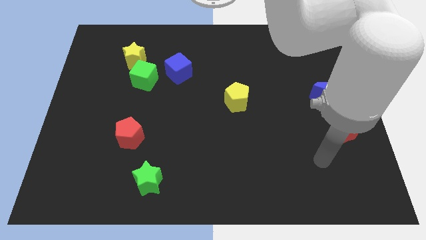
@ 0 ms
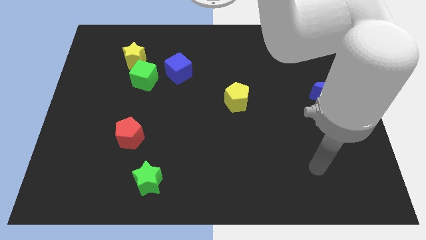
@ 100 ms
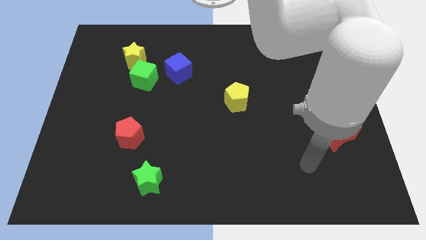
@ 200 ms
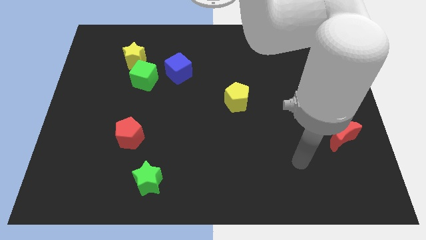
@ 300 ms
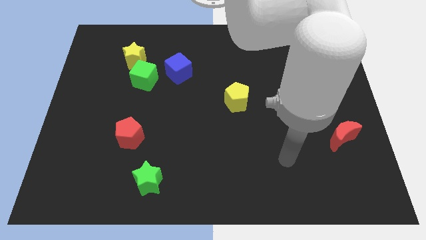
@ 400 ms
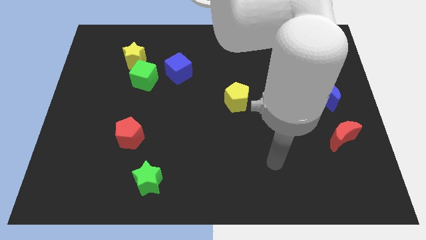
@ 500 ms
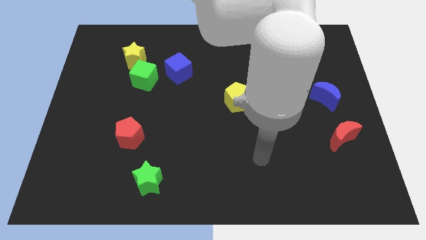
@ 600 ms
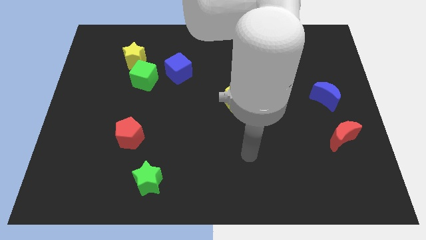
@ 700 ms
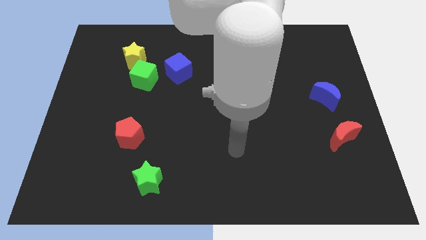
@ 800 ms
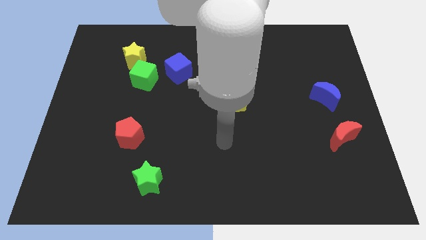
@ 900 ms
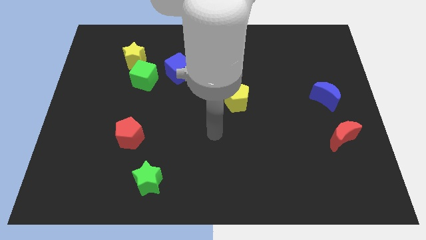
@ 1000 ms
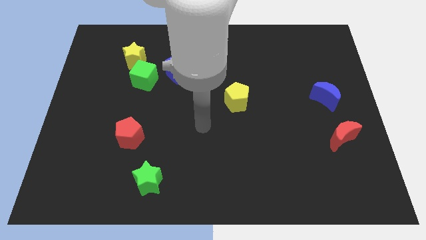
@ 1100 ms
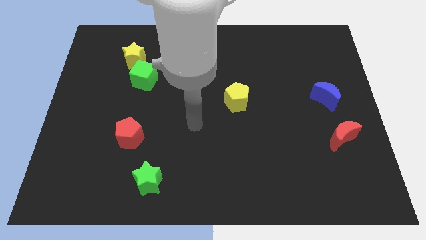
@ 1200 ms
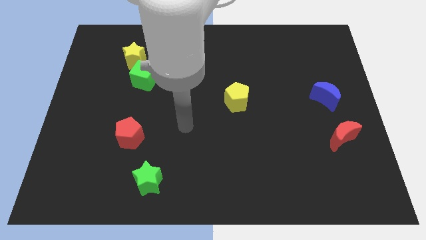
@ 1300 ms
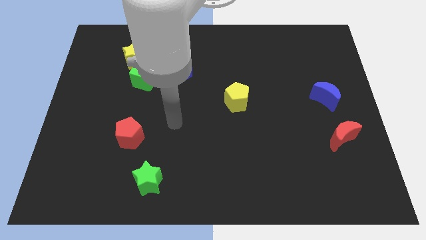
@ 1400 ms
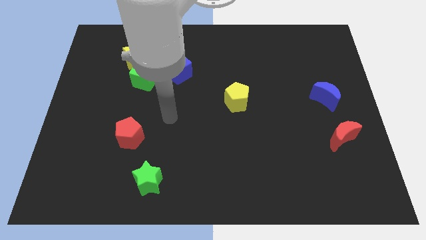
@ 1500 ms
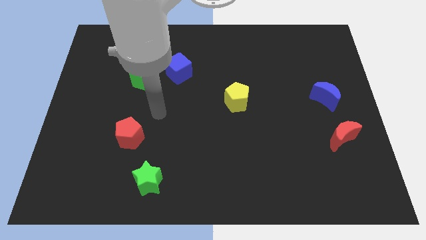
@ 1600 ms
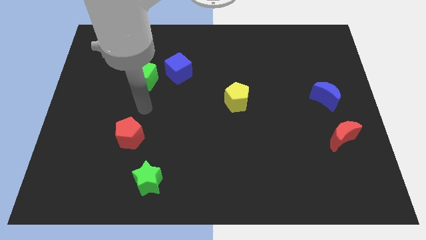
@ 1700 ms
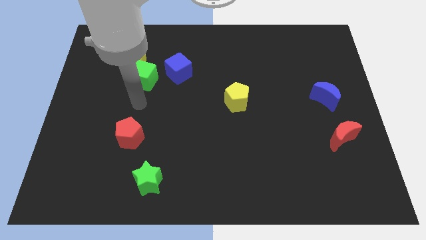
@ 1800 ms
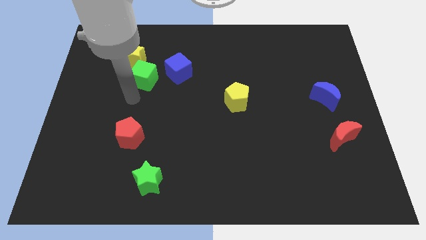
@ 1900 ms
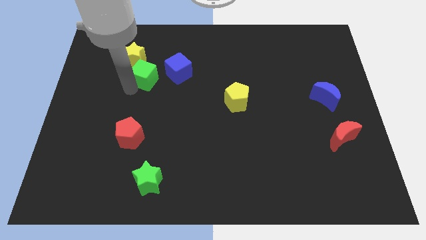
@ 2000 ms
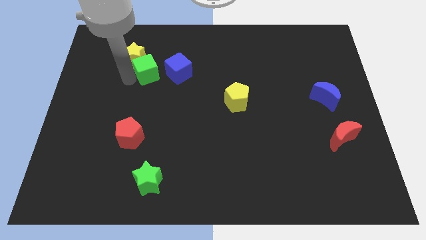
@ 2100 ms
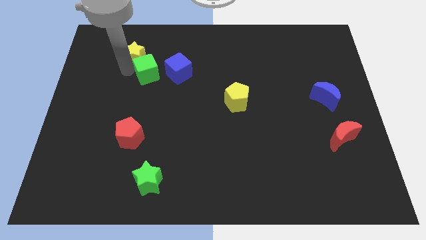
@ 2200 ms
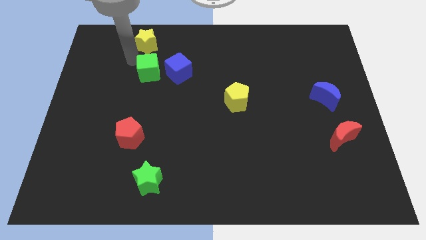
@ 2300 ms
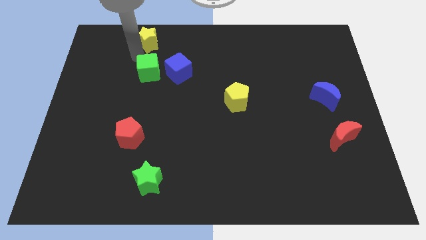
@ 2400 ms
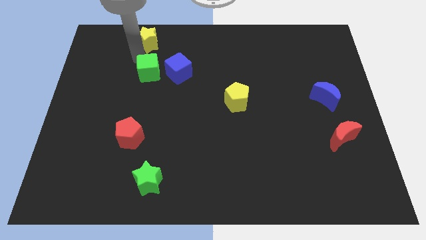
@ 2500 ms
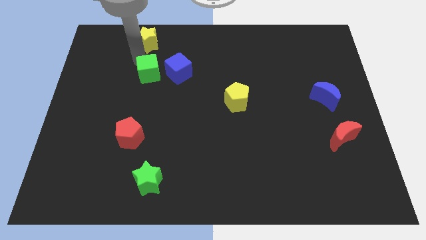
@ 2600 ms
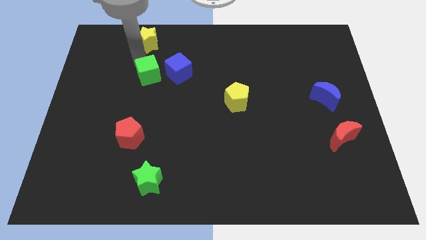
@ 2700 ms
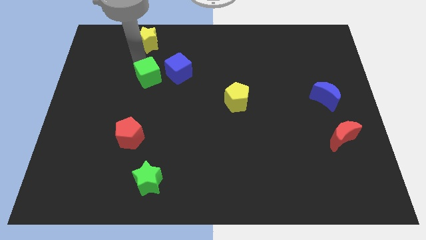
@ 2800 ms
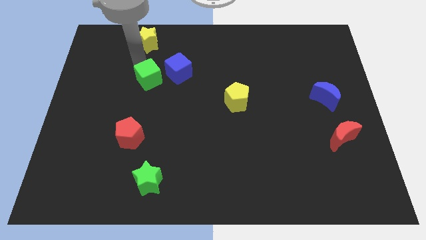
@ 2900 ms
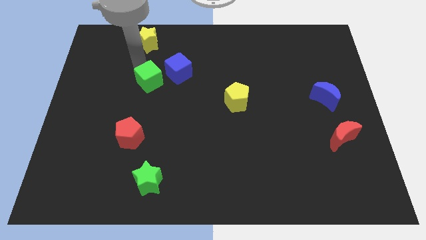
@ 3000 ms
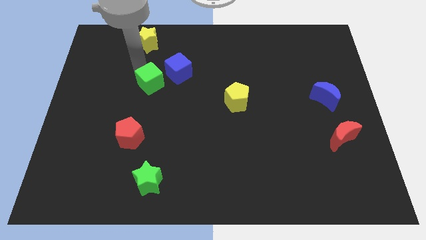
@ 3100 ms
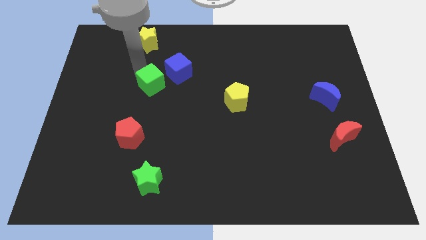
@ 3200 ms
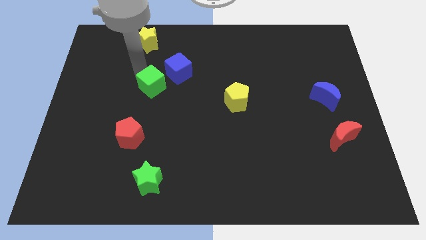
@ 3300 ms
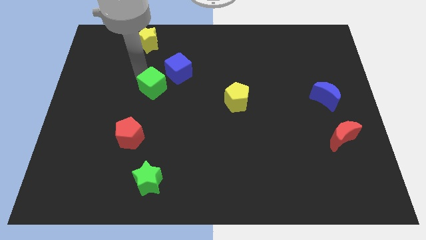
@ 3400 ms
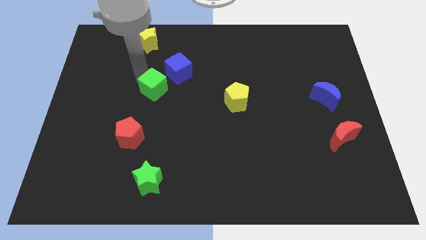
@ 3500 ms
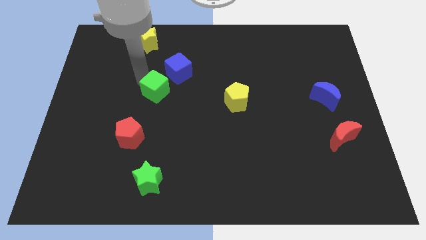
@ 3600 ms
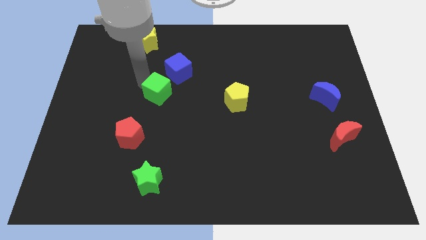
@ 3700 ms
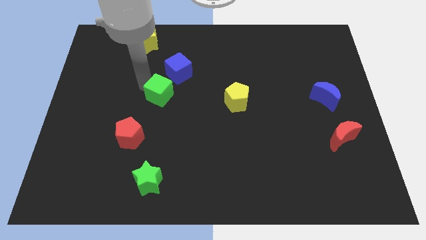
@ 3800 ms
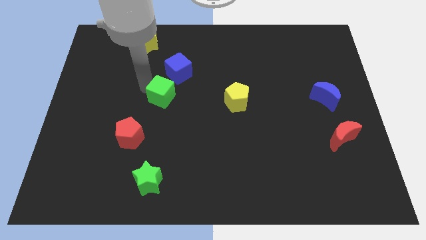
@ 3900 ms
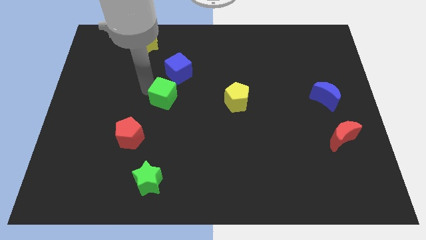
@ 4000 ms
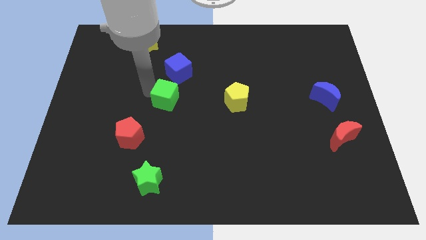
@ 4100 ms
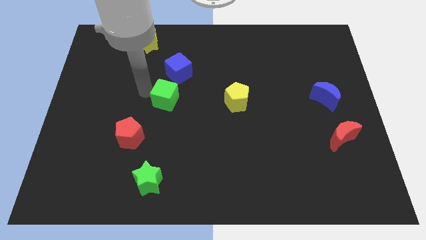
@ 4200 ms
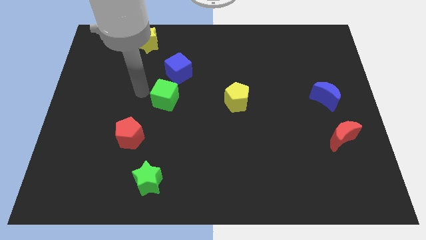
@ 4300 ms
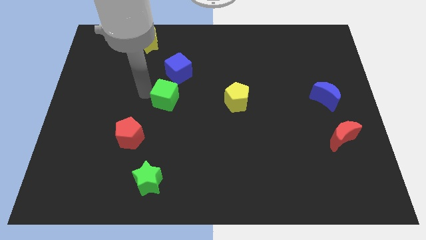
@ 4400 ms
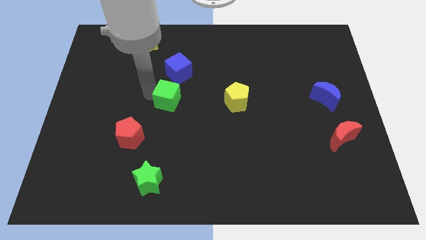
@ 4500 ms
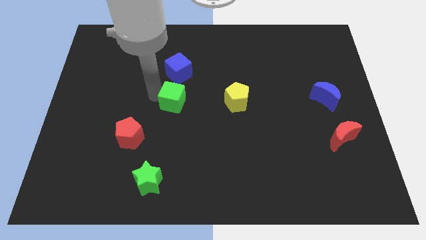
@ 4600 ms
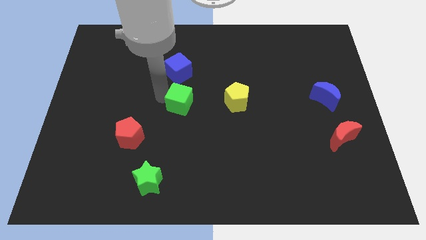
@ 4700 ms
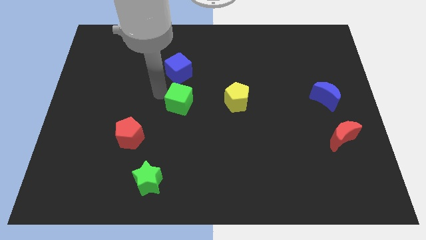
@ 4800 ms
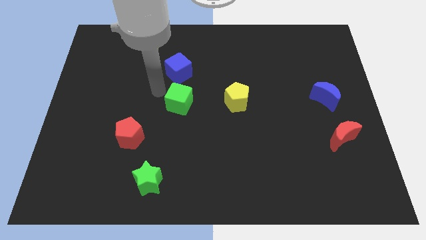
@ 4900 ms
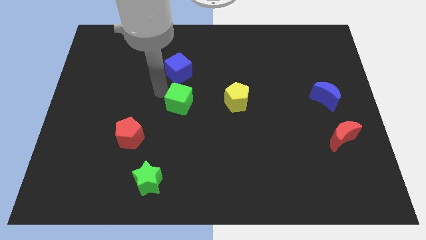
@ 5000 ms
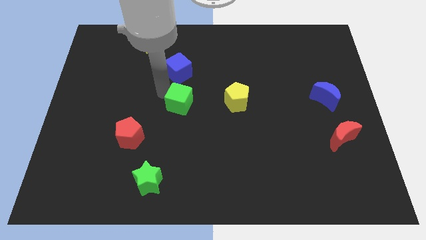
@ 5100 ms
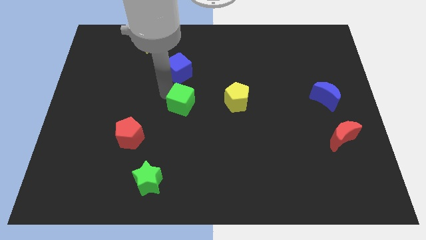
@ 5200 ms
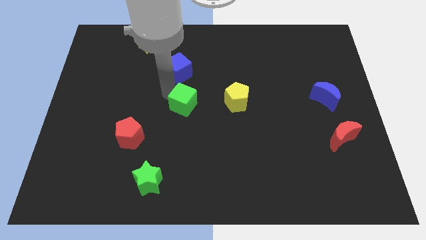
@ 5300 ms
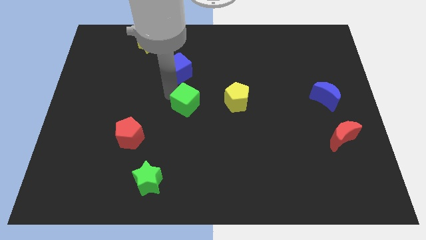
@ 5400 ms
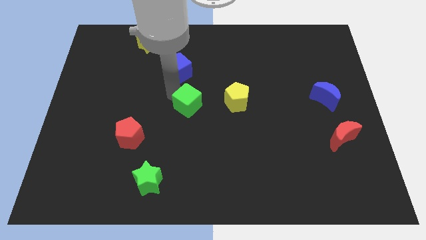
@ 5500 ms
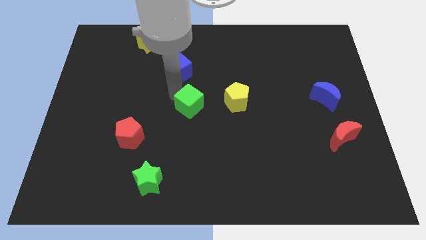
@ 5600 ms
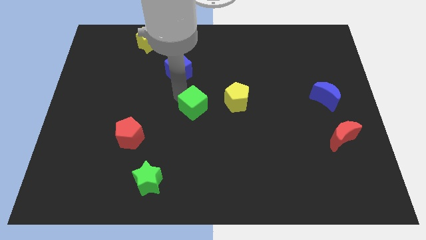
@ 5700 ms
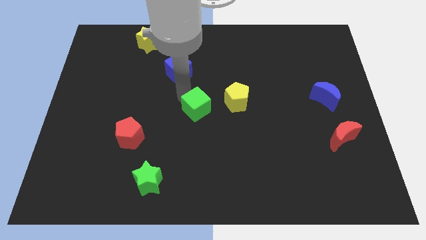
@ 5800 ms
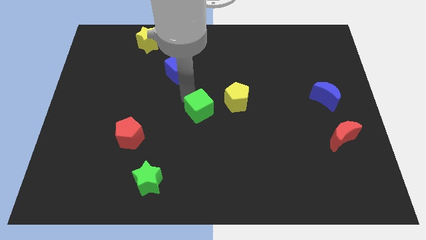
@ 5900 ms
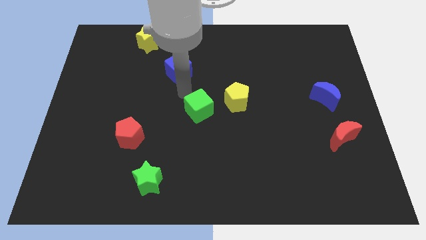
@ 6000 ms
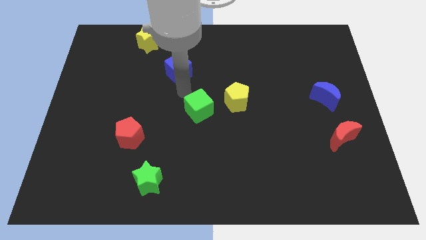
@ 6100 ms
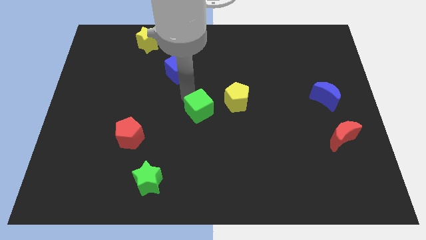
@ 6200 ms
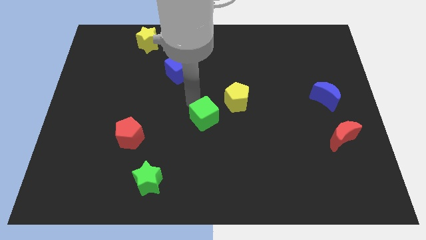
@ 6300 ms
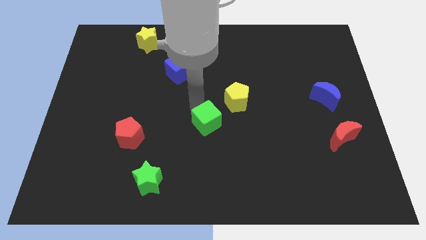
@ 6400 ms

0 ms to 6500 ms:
move the green cube downwards and then to the right

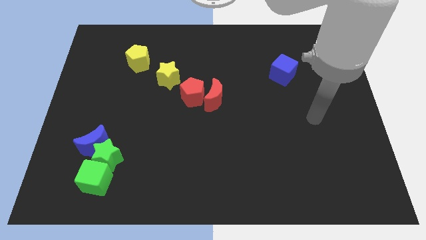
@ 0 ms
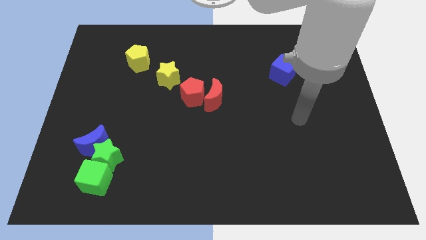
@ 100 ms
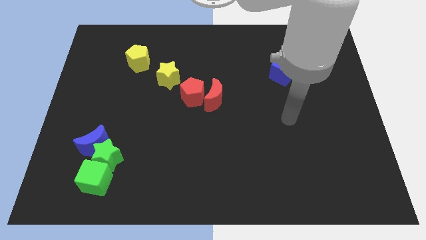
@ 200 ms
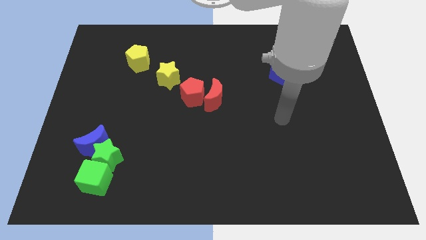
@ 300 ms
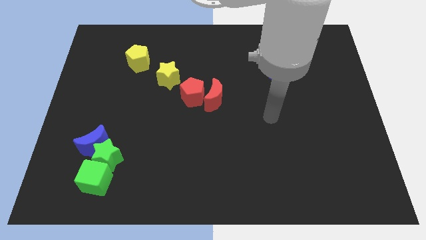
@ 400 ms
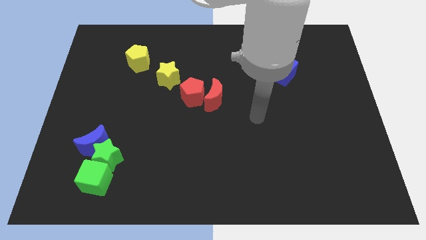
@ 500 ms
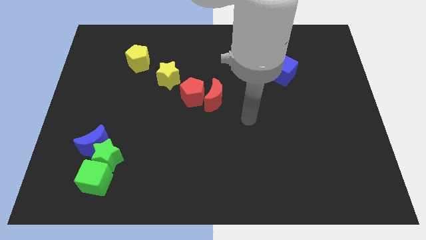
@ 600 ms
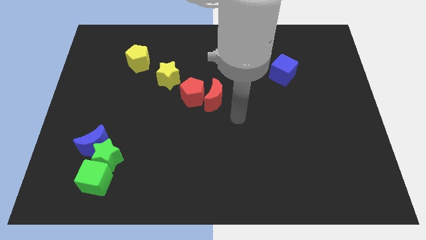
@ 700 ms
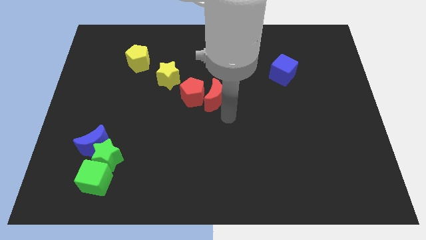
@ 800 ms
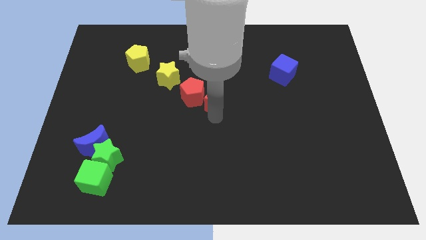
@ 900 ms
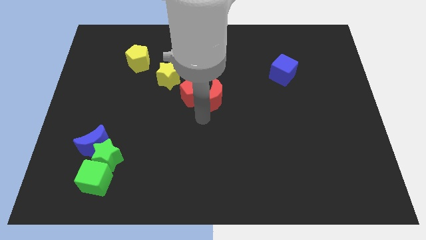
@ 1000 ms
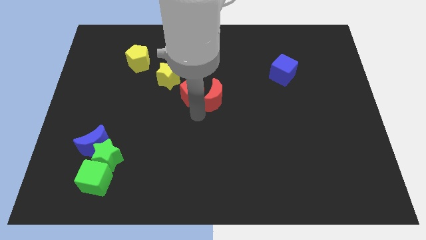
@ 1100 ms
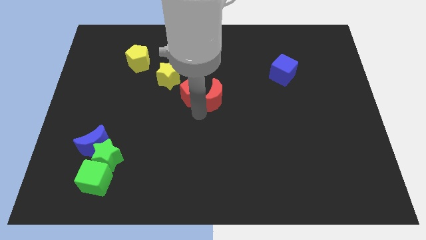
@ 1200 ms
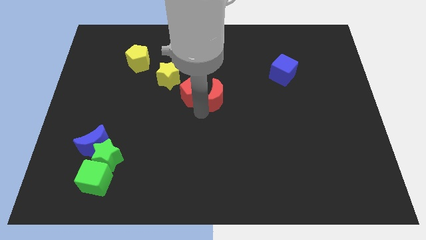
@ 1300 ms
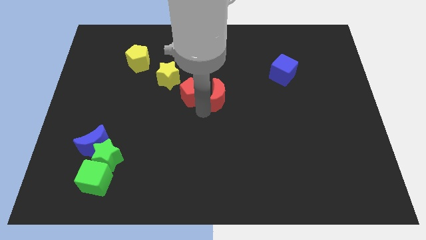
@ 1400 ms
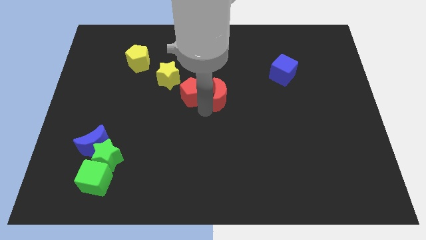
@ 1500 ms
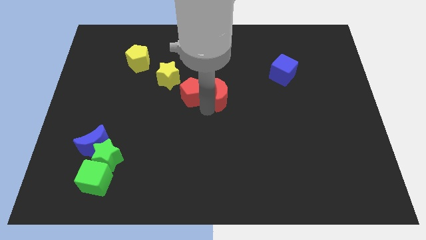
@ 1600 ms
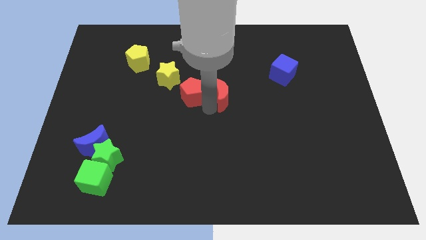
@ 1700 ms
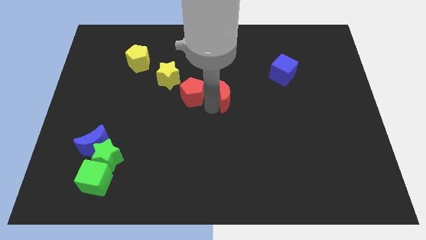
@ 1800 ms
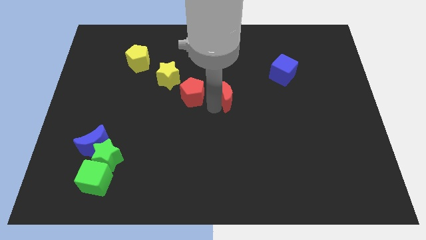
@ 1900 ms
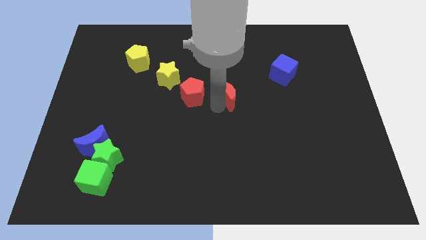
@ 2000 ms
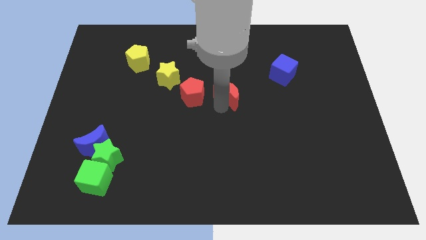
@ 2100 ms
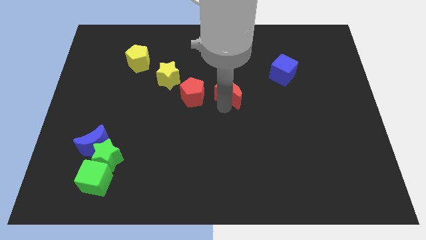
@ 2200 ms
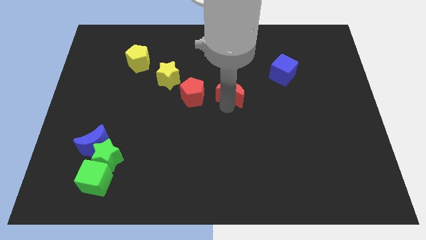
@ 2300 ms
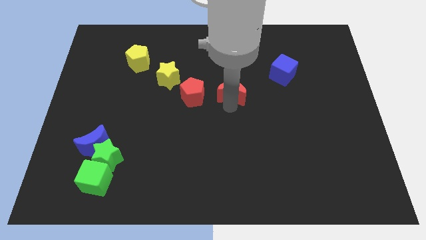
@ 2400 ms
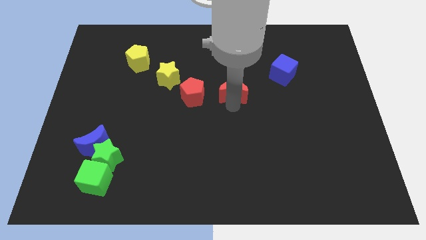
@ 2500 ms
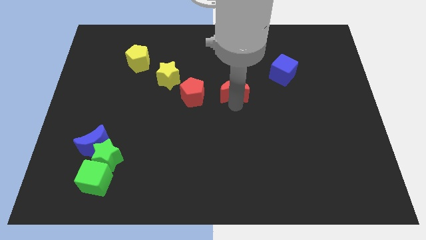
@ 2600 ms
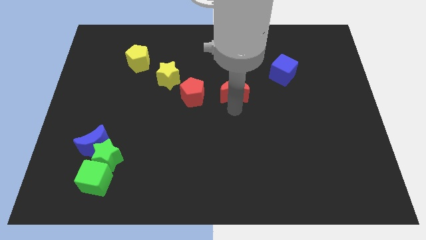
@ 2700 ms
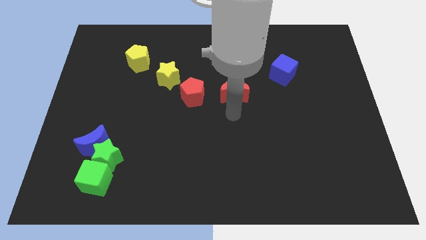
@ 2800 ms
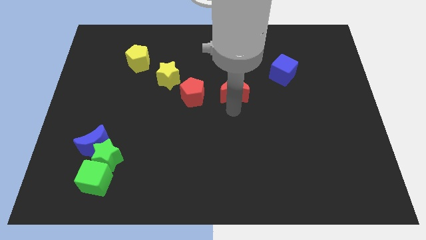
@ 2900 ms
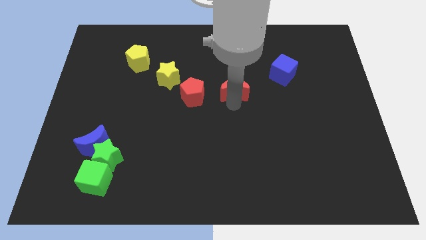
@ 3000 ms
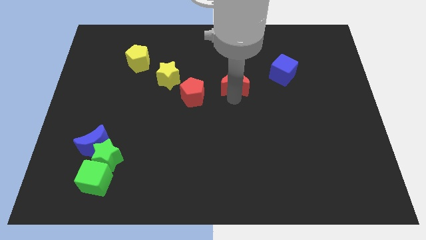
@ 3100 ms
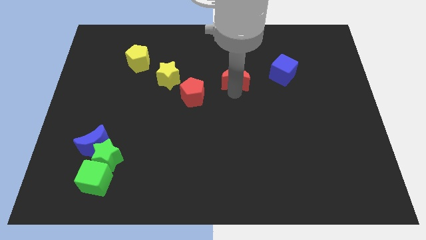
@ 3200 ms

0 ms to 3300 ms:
slide the red moon slightly upwards and right
